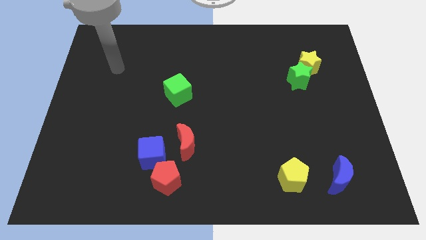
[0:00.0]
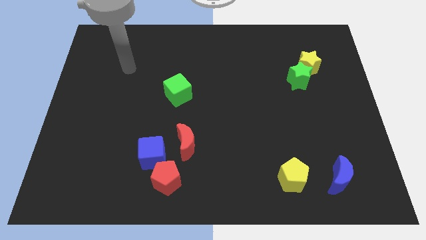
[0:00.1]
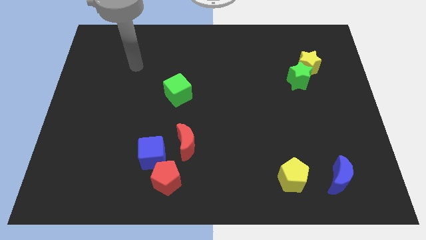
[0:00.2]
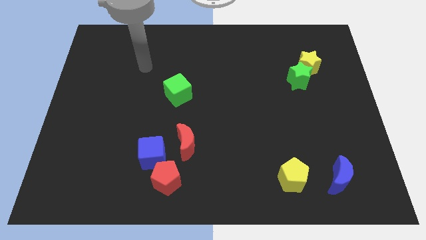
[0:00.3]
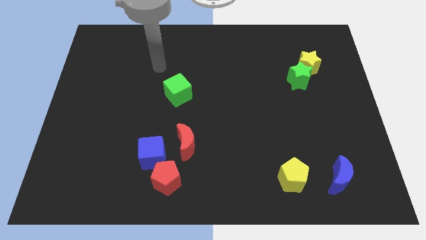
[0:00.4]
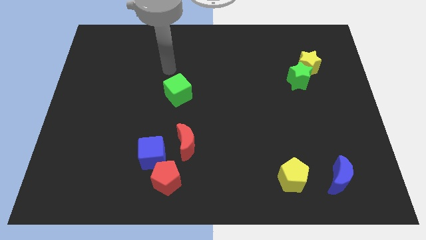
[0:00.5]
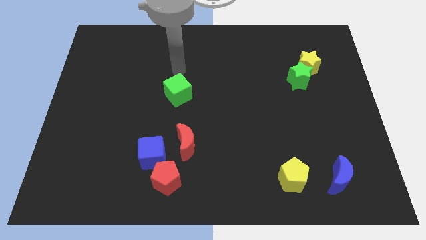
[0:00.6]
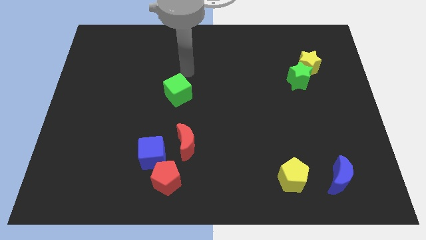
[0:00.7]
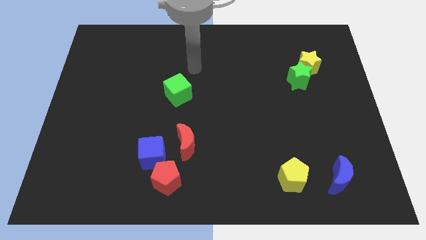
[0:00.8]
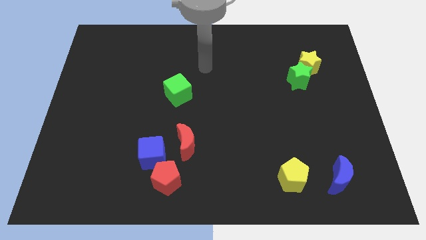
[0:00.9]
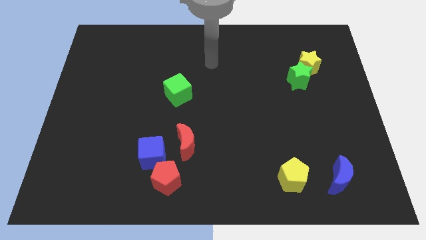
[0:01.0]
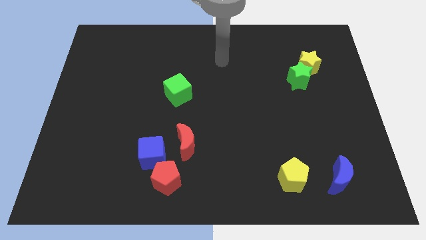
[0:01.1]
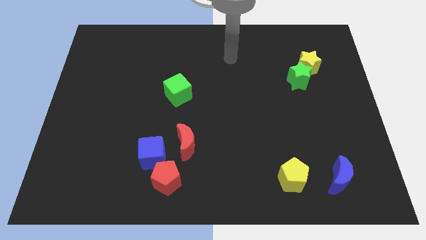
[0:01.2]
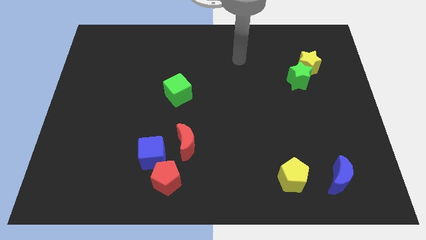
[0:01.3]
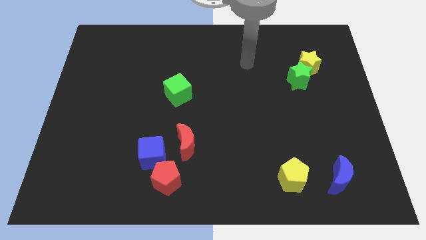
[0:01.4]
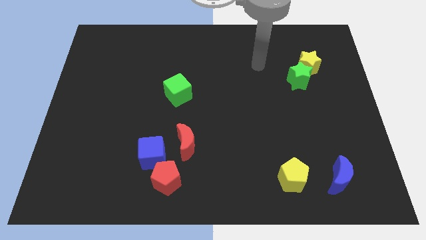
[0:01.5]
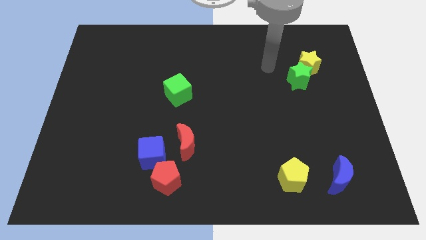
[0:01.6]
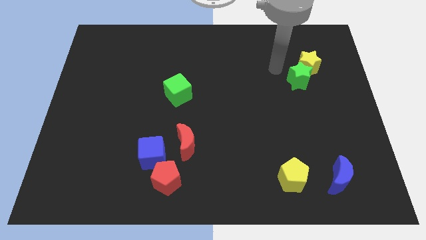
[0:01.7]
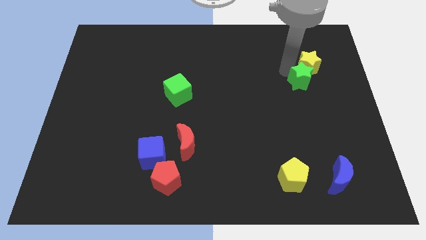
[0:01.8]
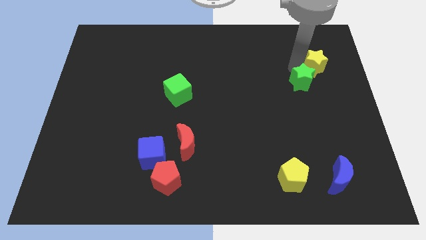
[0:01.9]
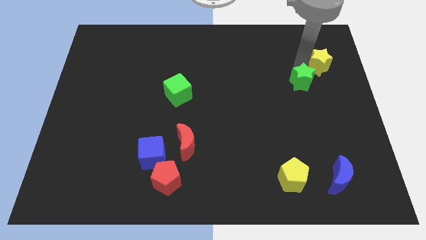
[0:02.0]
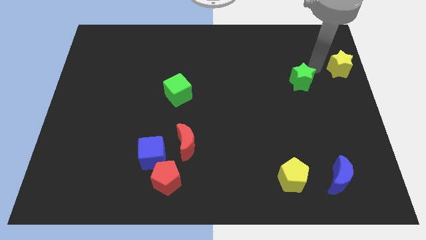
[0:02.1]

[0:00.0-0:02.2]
pull the green star apart from the yellow star

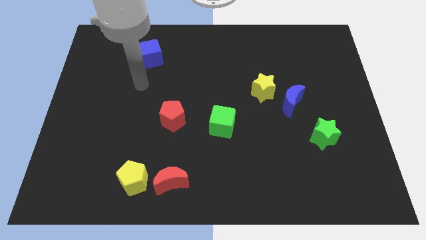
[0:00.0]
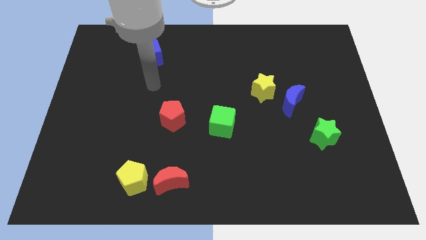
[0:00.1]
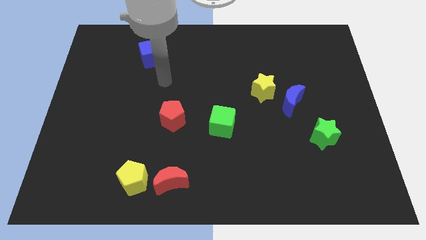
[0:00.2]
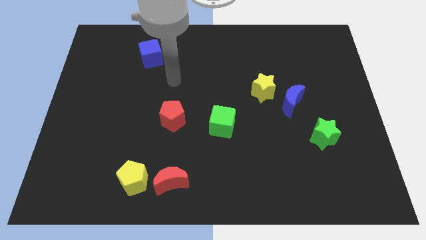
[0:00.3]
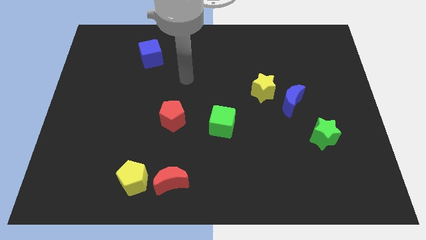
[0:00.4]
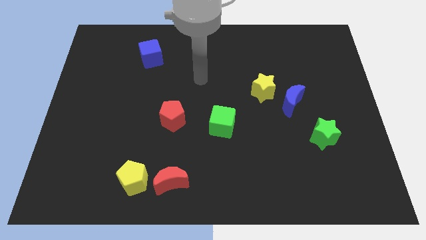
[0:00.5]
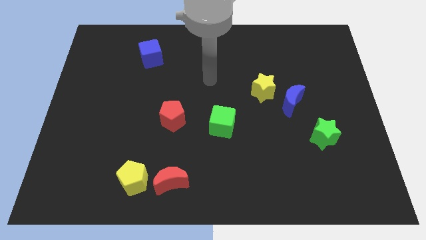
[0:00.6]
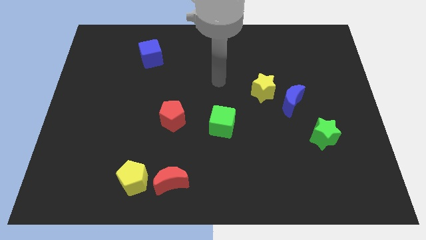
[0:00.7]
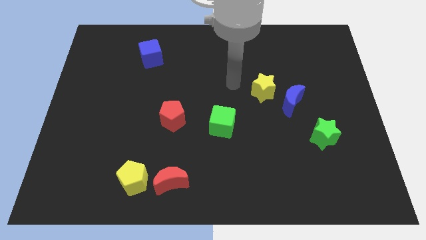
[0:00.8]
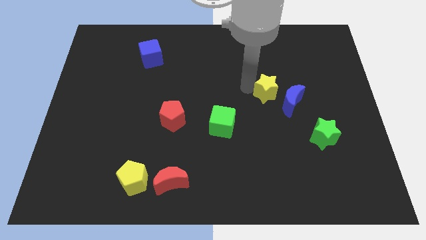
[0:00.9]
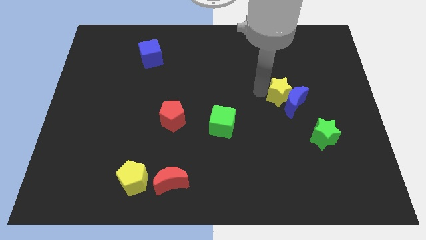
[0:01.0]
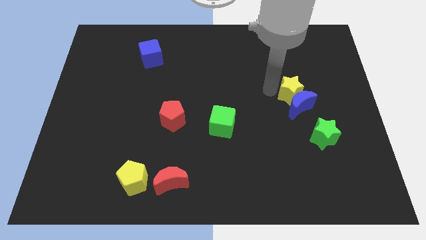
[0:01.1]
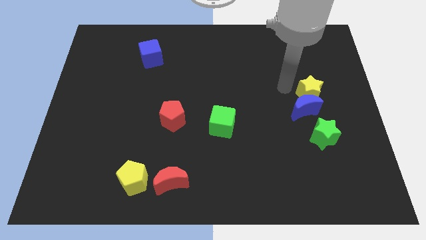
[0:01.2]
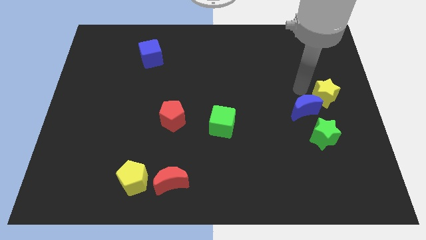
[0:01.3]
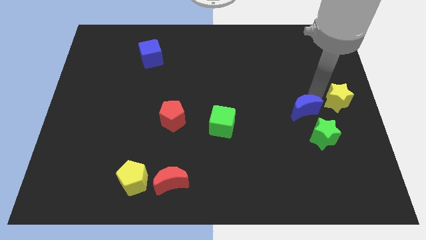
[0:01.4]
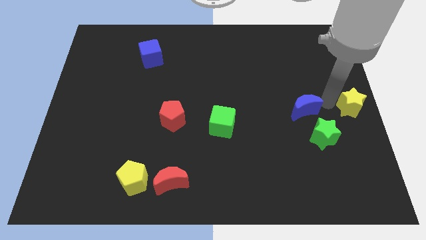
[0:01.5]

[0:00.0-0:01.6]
move the blue moon away from the yellow star

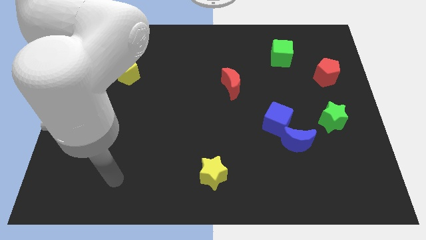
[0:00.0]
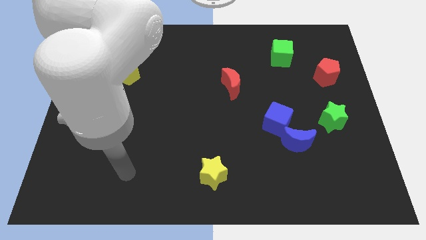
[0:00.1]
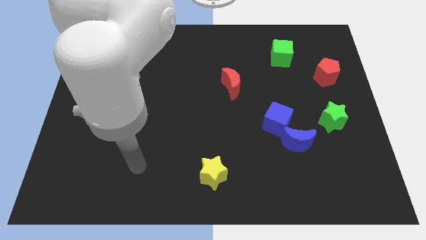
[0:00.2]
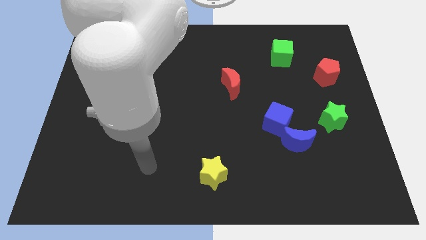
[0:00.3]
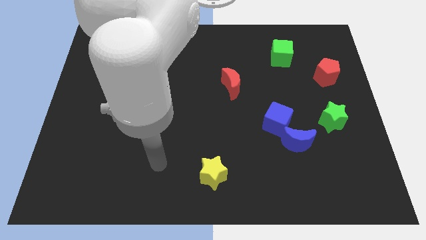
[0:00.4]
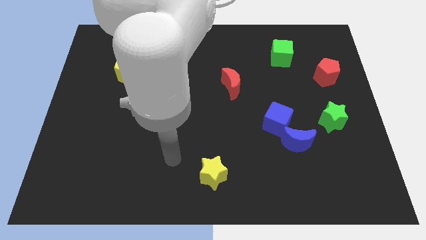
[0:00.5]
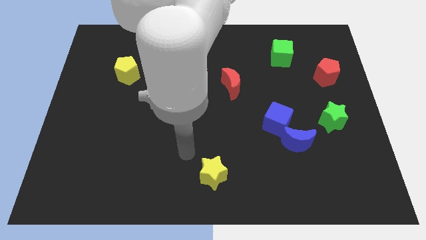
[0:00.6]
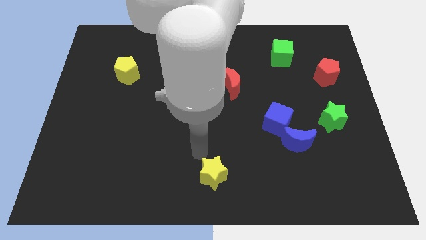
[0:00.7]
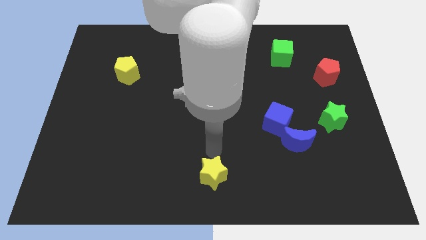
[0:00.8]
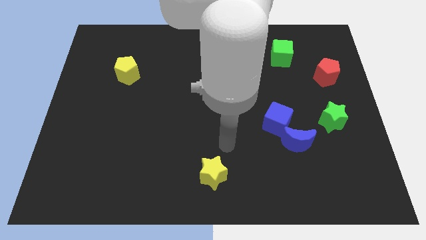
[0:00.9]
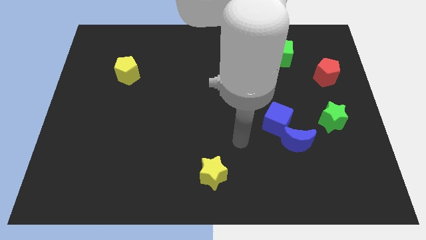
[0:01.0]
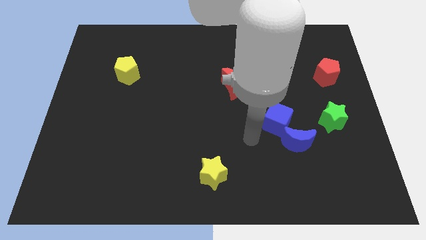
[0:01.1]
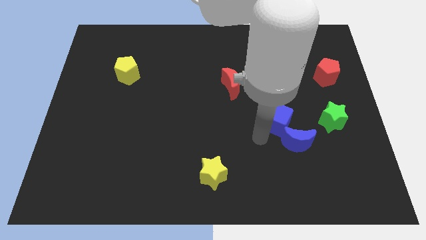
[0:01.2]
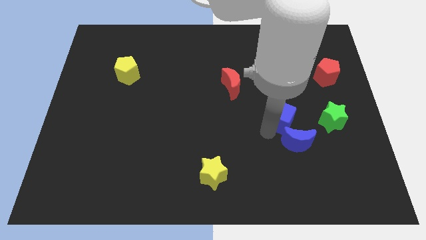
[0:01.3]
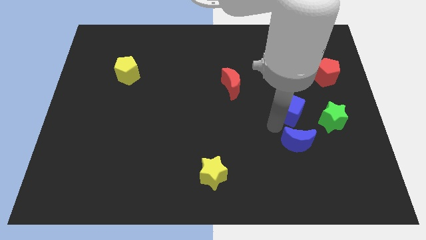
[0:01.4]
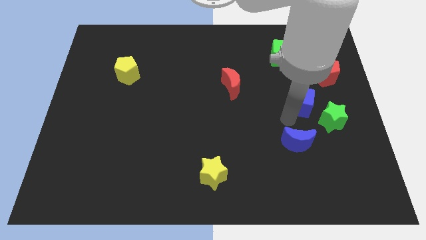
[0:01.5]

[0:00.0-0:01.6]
move the blue moon away from the blue cube

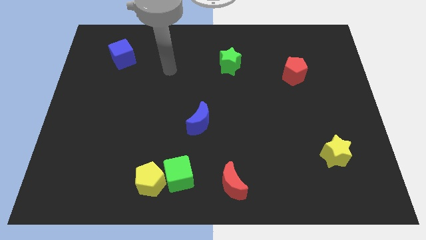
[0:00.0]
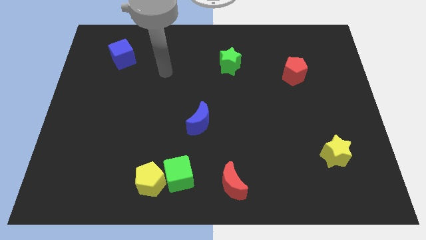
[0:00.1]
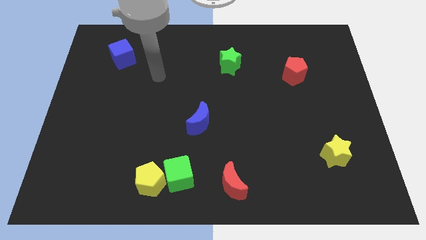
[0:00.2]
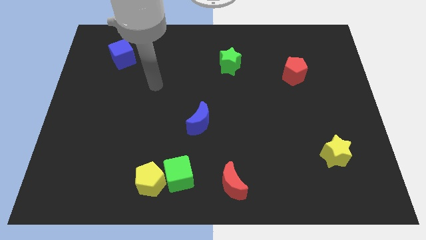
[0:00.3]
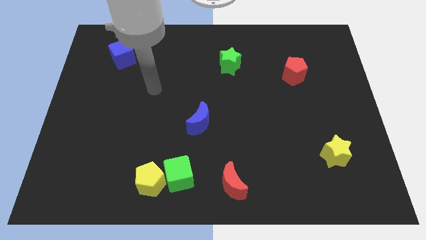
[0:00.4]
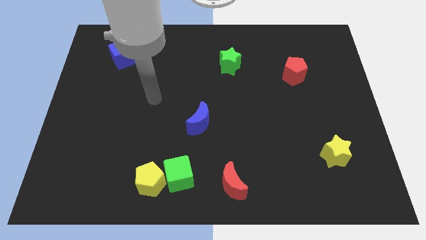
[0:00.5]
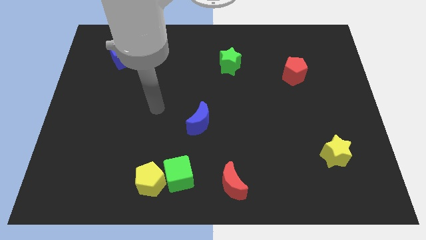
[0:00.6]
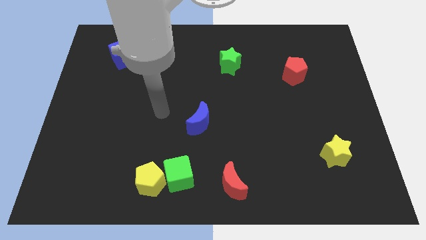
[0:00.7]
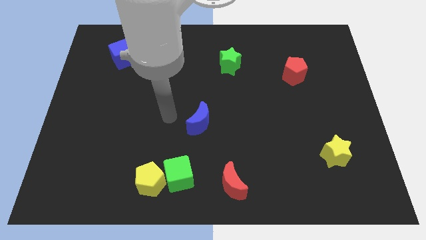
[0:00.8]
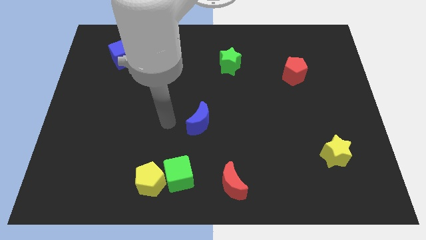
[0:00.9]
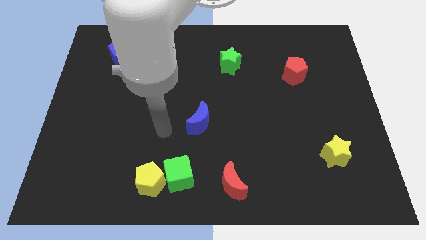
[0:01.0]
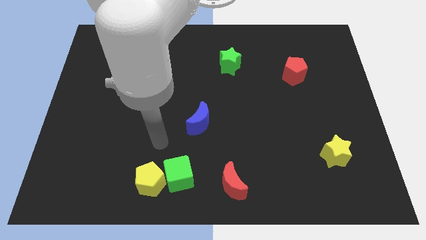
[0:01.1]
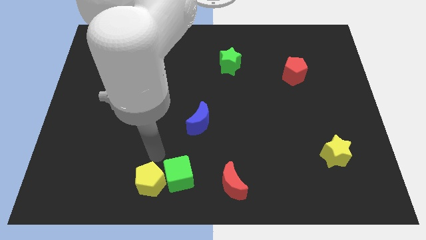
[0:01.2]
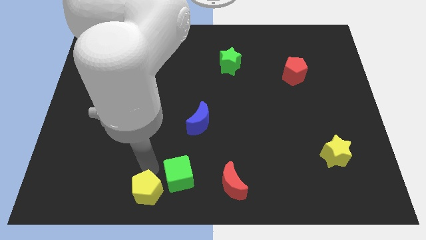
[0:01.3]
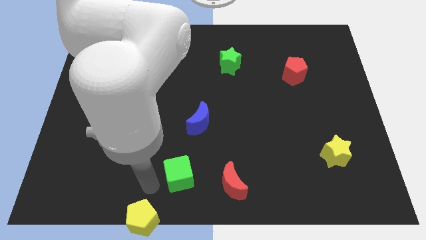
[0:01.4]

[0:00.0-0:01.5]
move the green cube away from the yellow pentagon

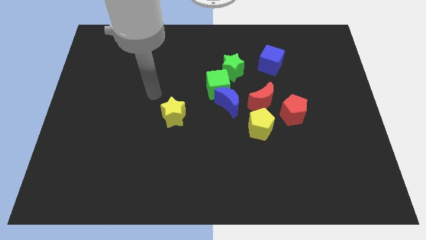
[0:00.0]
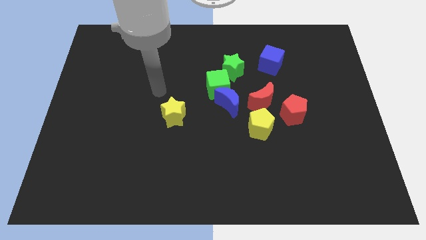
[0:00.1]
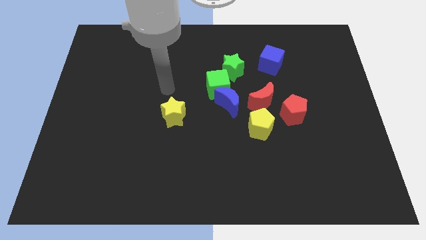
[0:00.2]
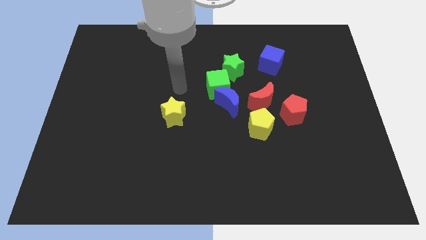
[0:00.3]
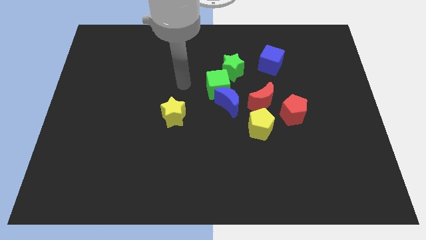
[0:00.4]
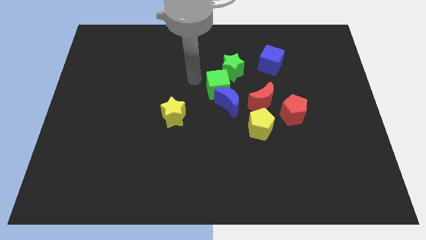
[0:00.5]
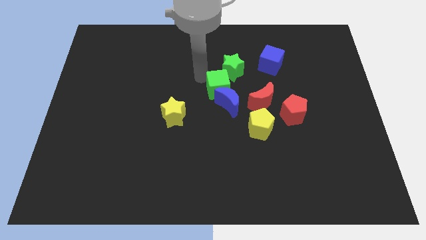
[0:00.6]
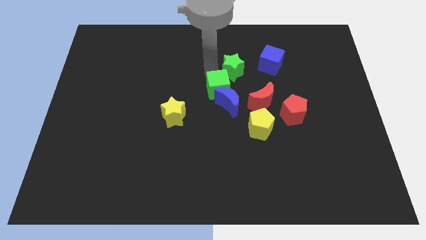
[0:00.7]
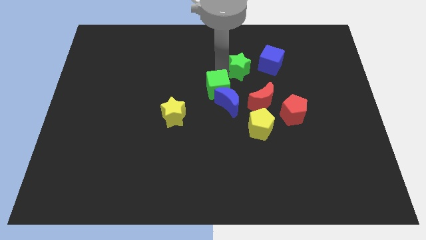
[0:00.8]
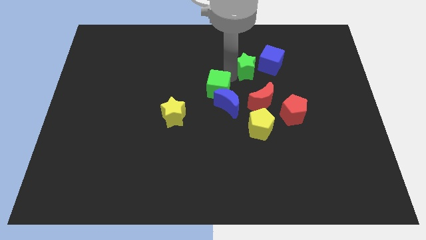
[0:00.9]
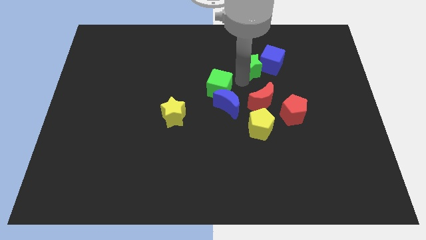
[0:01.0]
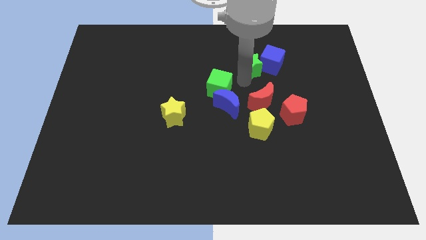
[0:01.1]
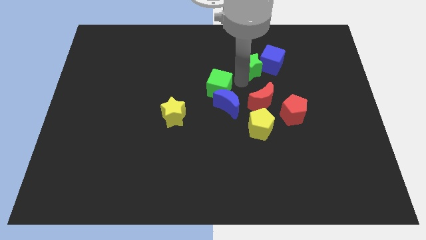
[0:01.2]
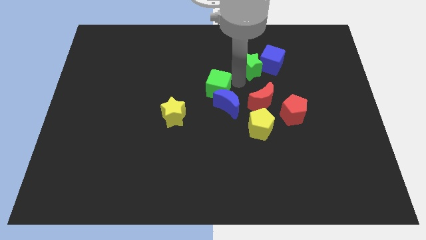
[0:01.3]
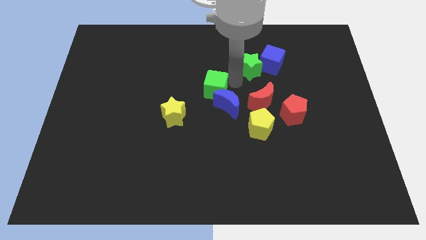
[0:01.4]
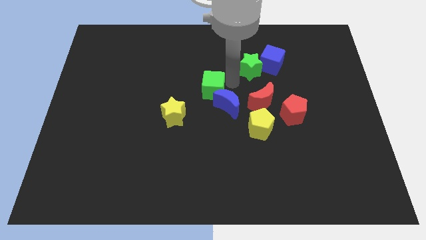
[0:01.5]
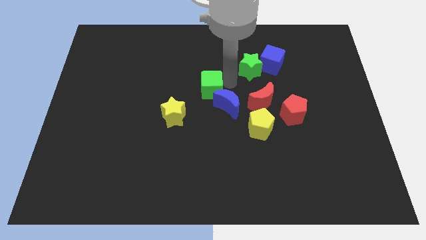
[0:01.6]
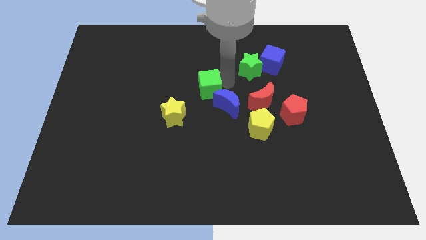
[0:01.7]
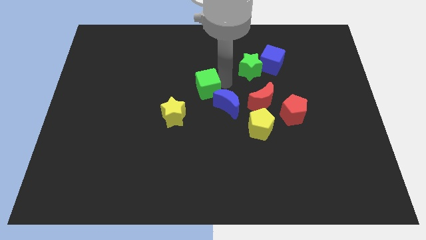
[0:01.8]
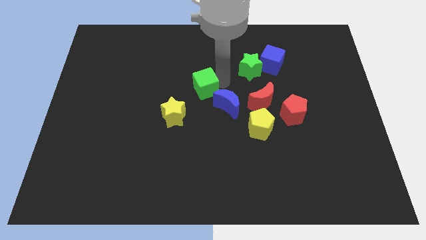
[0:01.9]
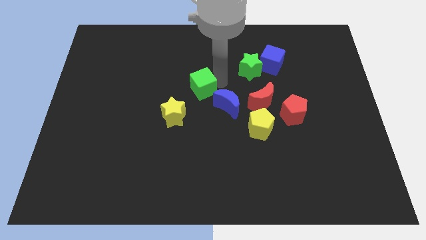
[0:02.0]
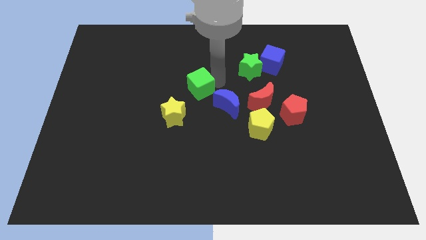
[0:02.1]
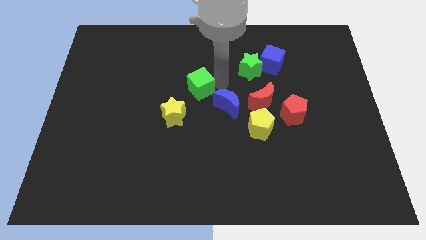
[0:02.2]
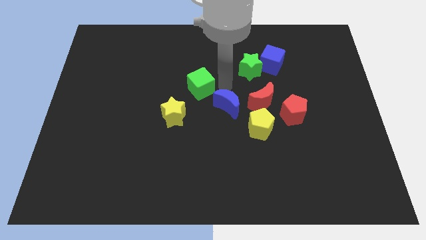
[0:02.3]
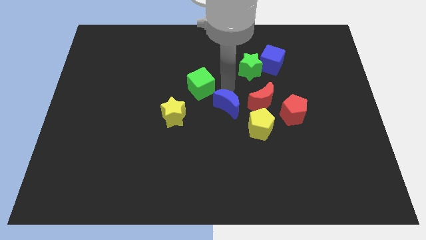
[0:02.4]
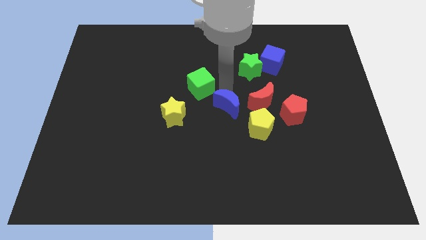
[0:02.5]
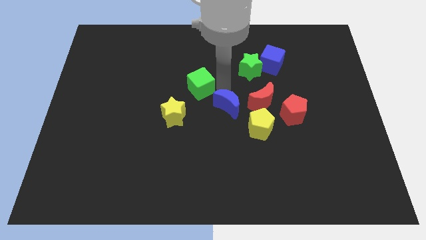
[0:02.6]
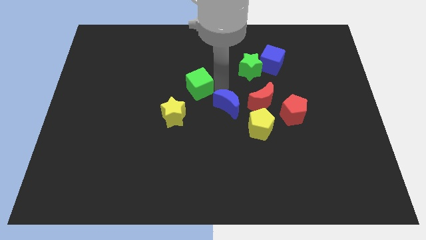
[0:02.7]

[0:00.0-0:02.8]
move the green cube away from the blue moon and green star
